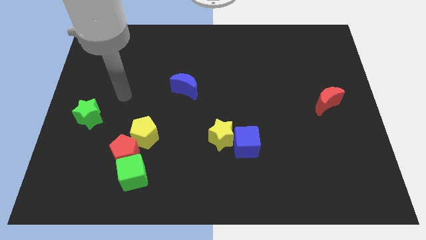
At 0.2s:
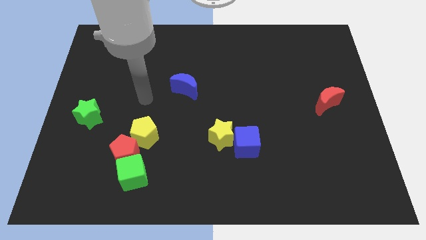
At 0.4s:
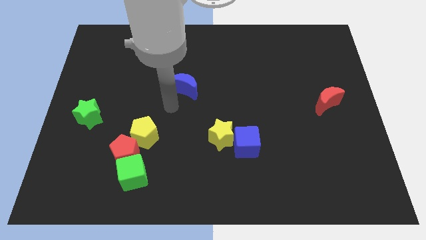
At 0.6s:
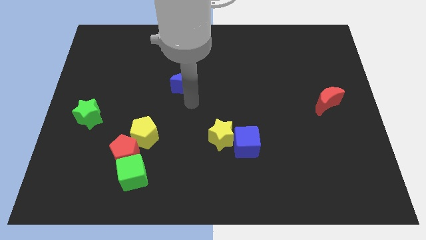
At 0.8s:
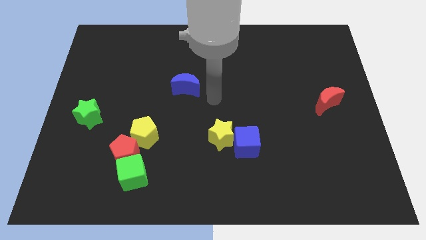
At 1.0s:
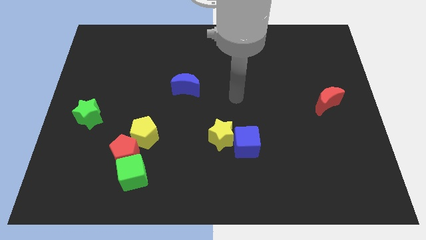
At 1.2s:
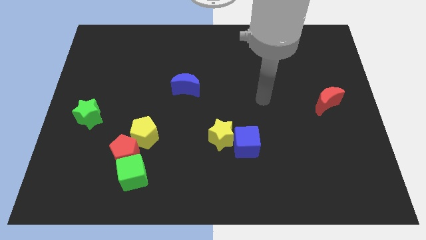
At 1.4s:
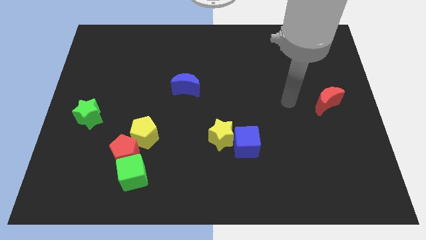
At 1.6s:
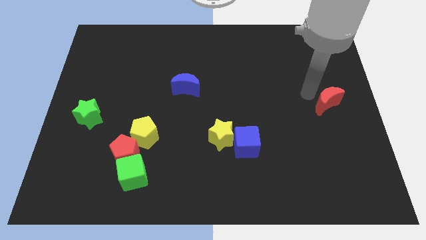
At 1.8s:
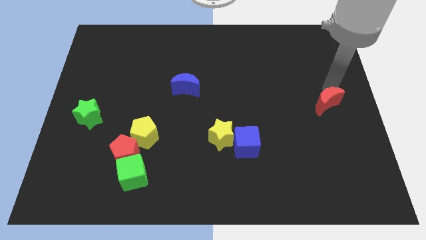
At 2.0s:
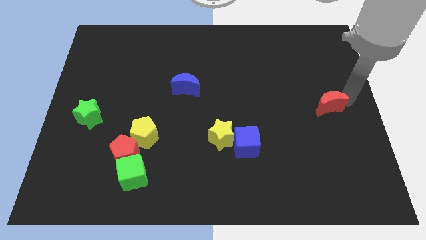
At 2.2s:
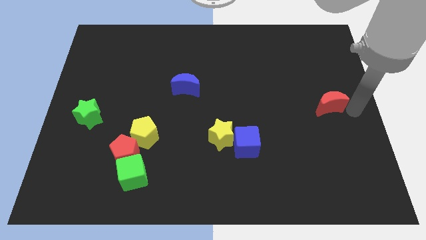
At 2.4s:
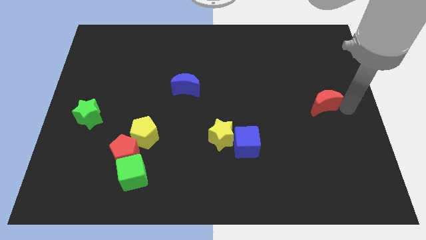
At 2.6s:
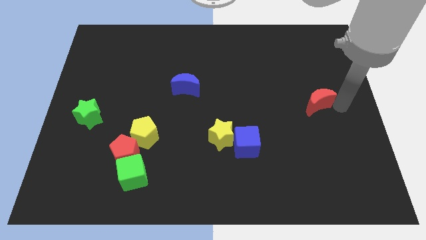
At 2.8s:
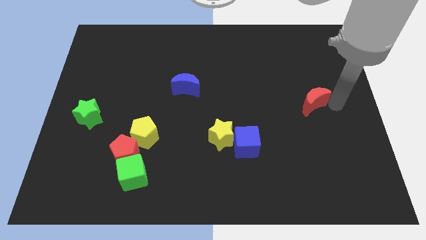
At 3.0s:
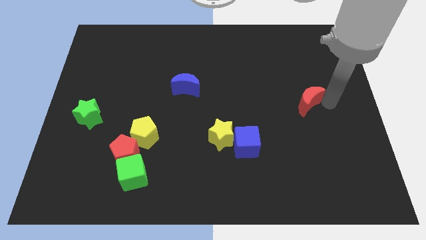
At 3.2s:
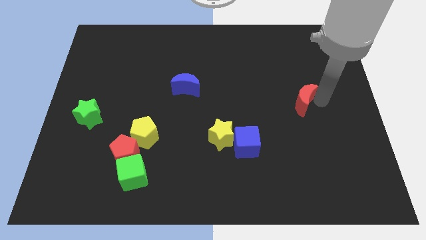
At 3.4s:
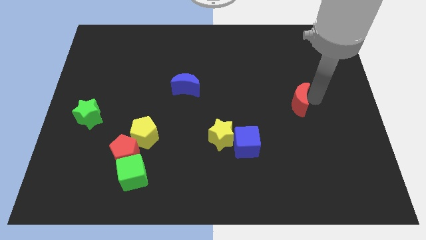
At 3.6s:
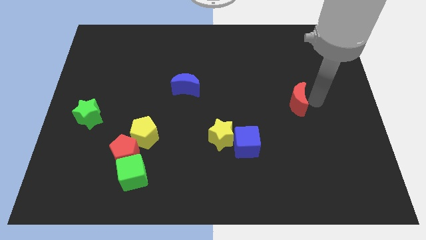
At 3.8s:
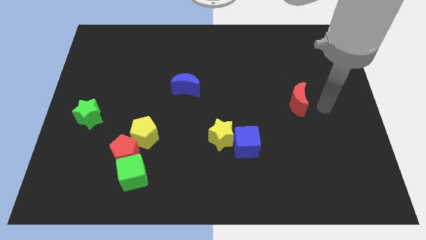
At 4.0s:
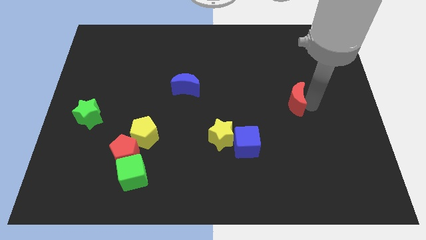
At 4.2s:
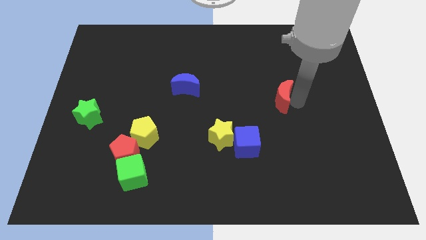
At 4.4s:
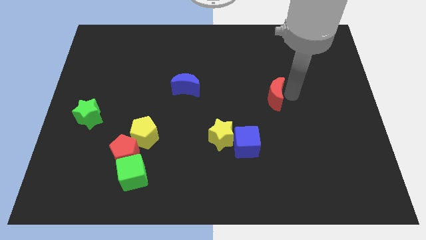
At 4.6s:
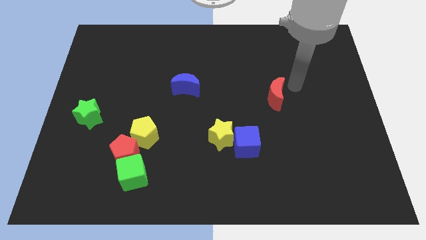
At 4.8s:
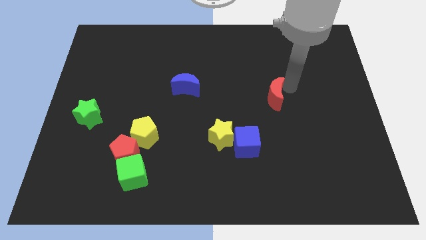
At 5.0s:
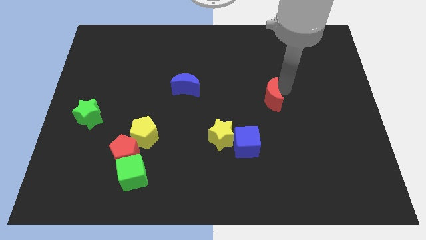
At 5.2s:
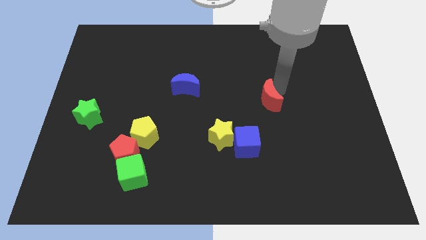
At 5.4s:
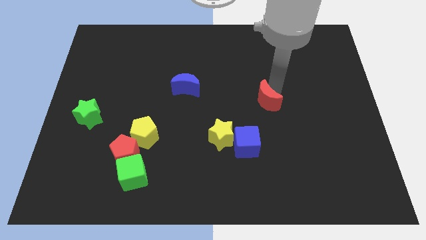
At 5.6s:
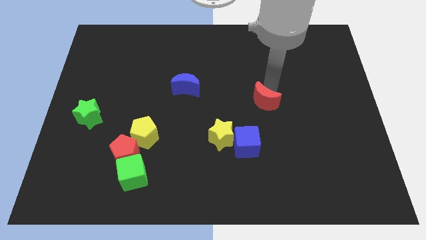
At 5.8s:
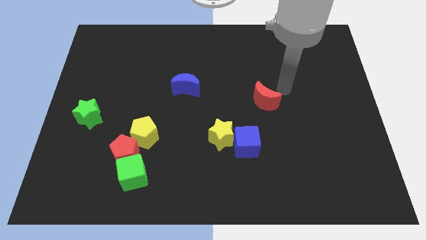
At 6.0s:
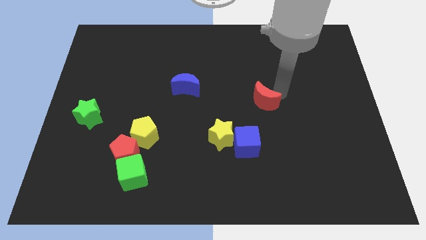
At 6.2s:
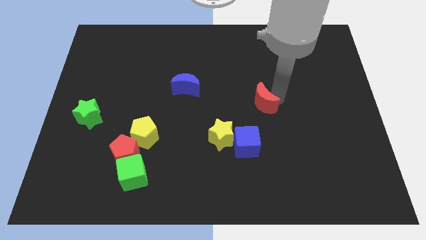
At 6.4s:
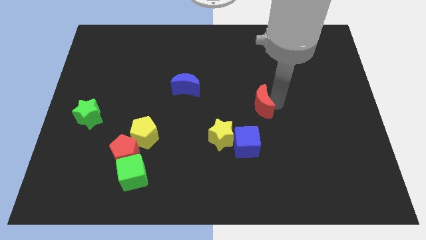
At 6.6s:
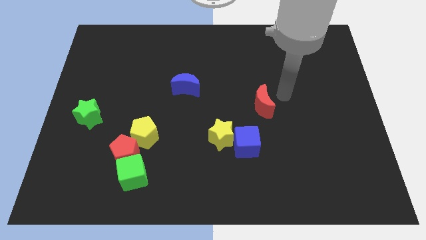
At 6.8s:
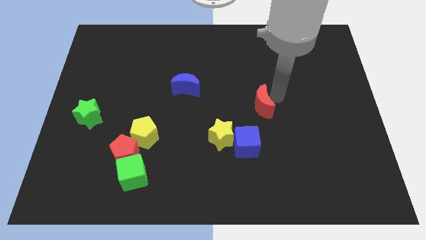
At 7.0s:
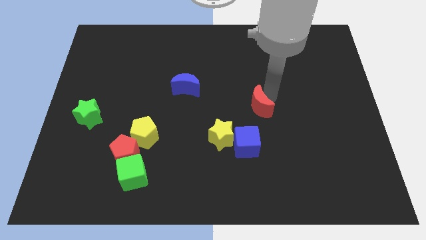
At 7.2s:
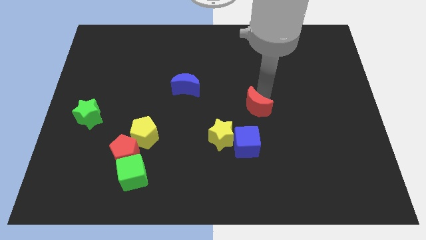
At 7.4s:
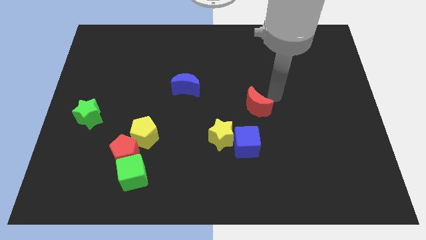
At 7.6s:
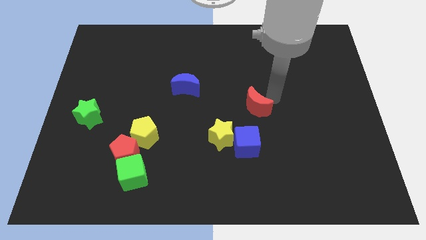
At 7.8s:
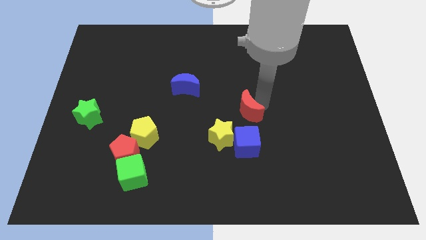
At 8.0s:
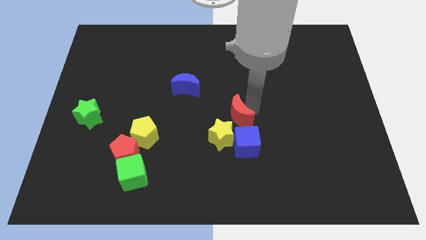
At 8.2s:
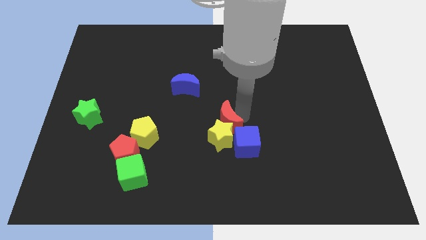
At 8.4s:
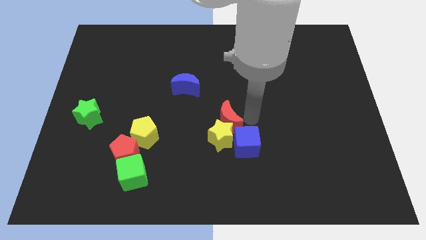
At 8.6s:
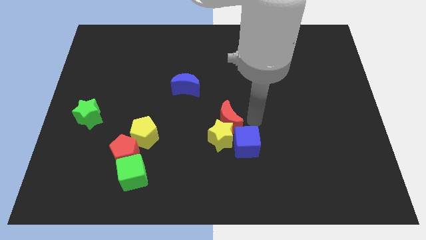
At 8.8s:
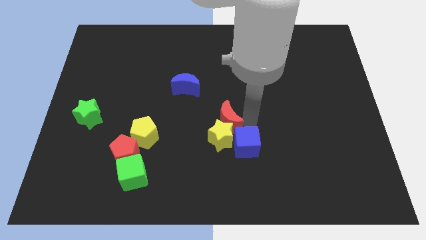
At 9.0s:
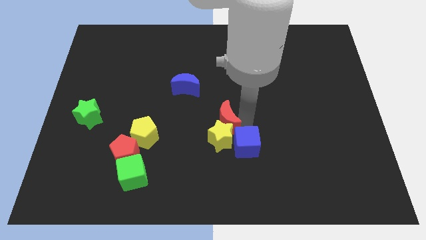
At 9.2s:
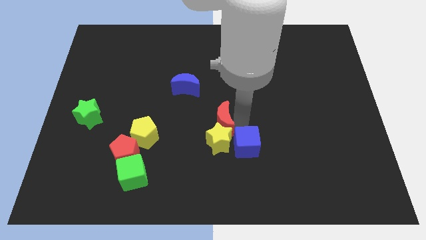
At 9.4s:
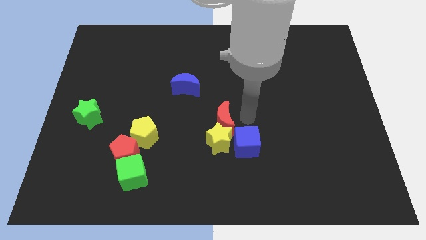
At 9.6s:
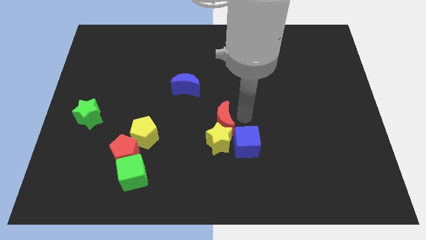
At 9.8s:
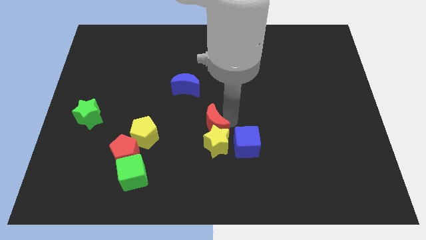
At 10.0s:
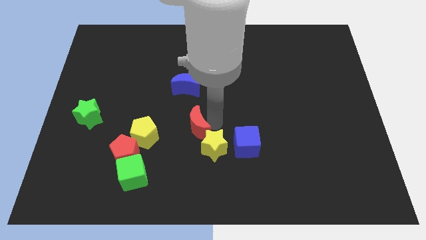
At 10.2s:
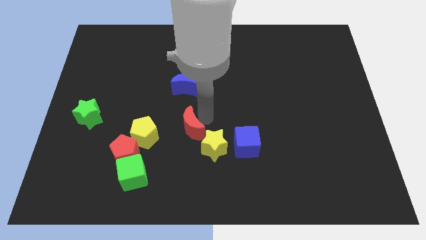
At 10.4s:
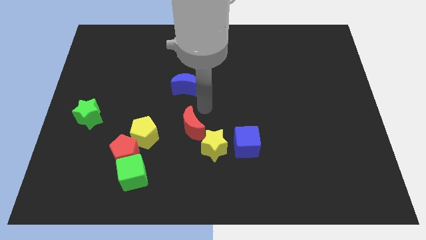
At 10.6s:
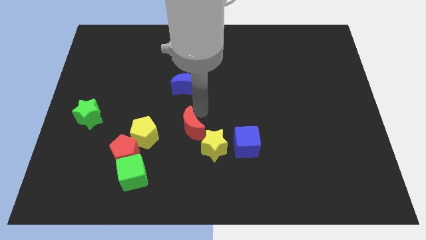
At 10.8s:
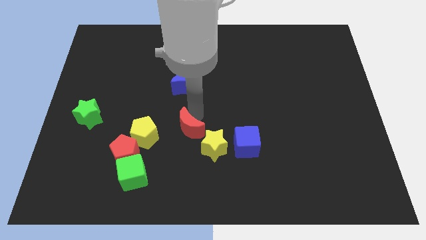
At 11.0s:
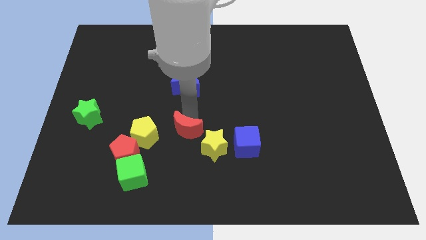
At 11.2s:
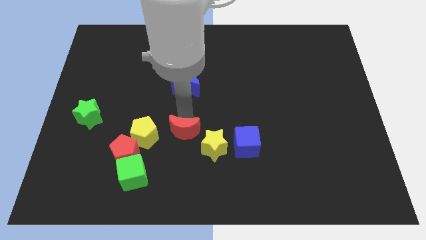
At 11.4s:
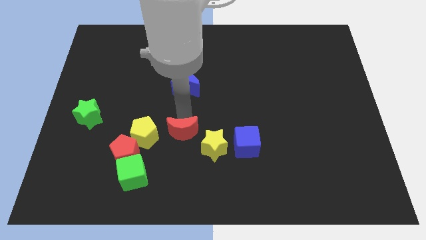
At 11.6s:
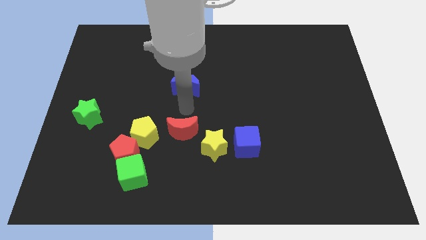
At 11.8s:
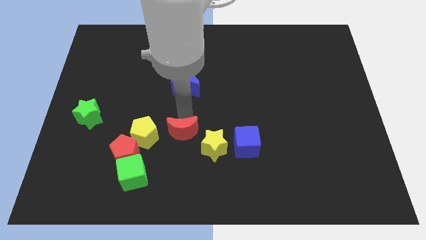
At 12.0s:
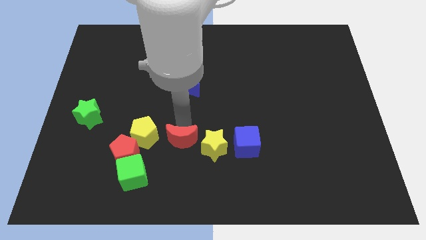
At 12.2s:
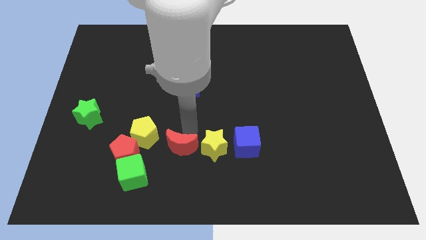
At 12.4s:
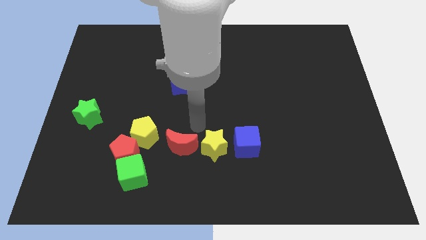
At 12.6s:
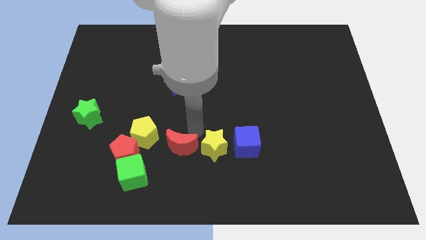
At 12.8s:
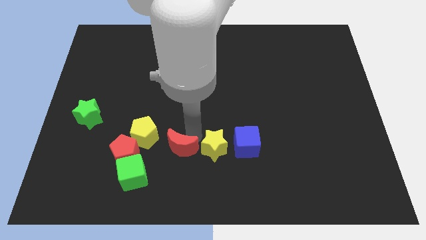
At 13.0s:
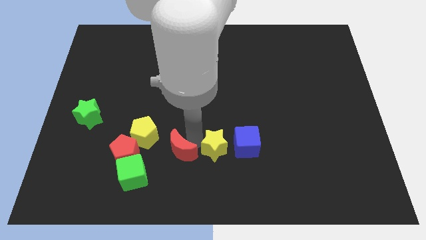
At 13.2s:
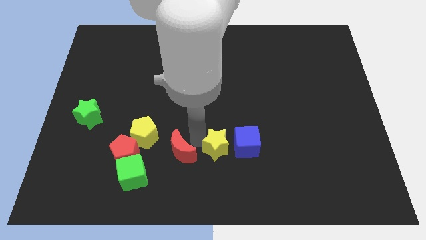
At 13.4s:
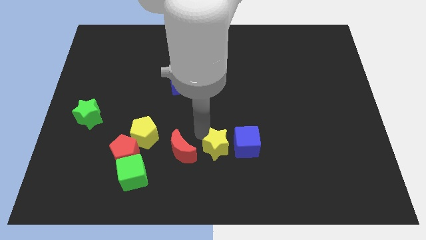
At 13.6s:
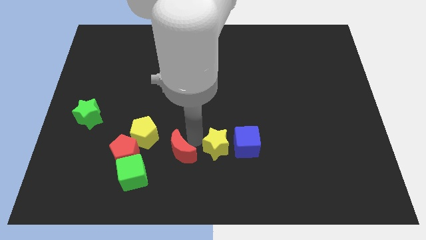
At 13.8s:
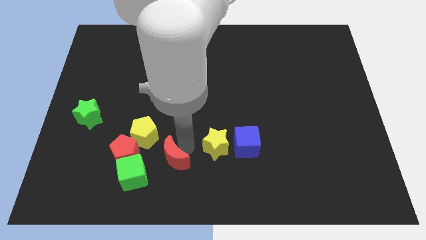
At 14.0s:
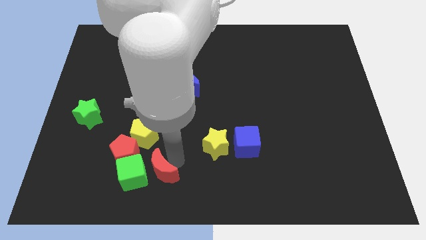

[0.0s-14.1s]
slide the red moon to the bottom side of the yellow pentagon

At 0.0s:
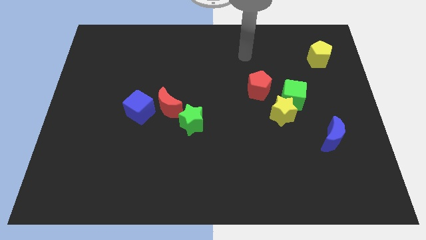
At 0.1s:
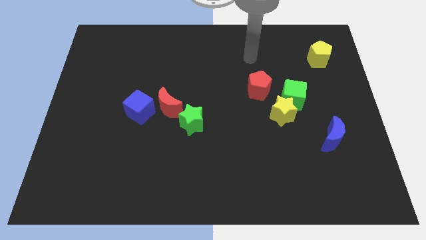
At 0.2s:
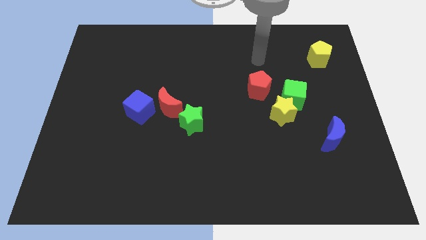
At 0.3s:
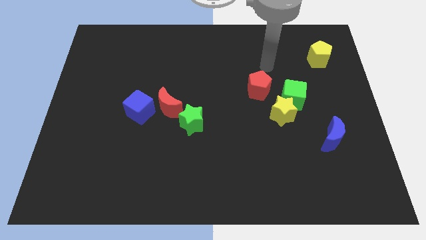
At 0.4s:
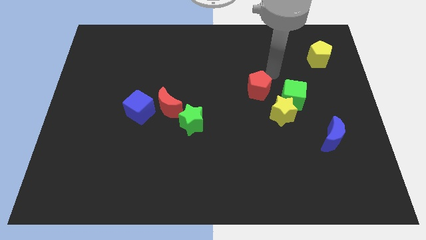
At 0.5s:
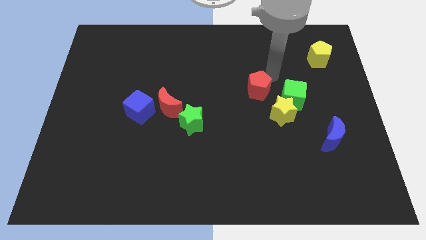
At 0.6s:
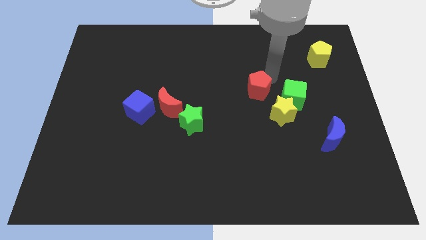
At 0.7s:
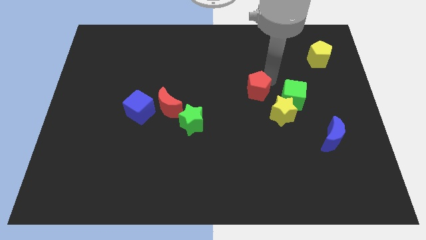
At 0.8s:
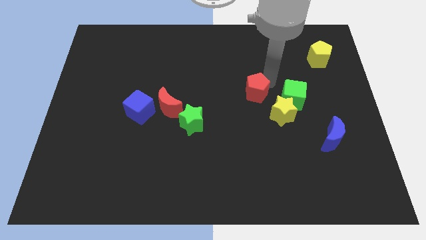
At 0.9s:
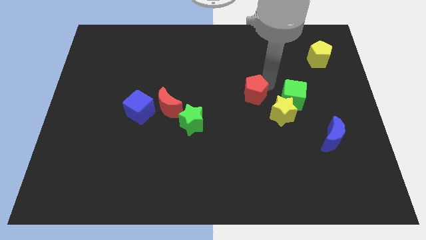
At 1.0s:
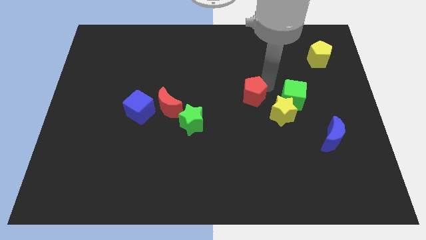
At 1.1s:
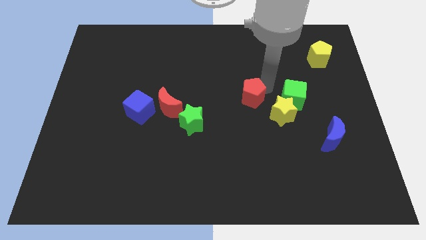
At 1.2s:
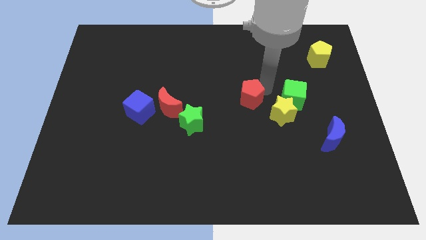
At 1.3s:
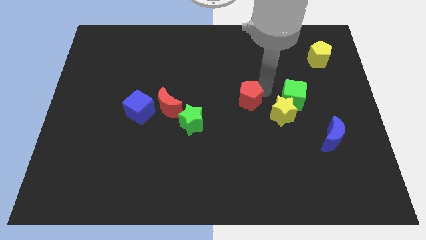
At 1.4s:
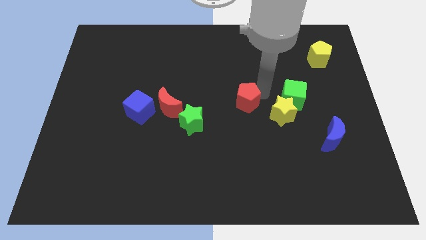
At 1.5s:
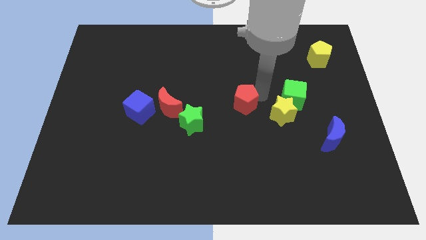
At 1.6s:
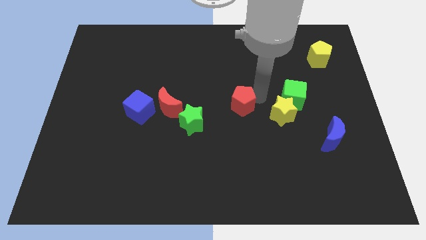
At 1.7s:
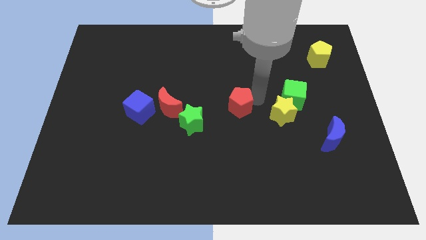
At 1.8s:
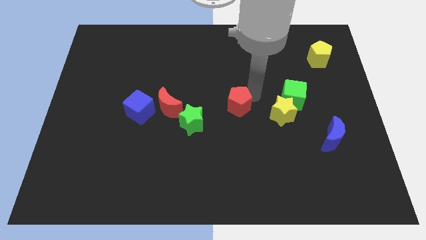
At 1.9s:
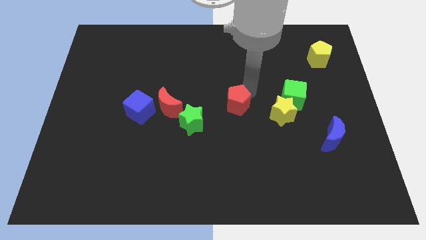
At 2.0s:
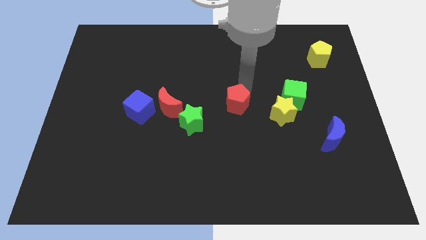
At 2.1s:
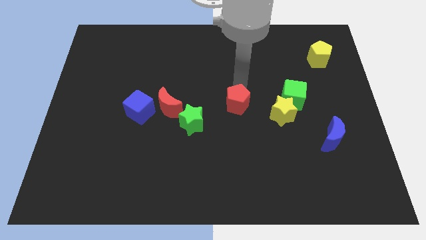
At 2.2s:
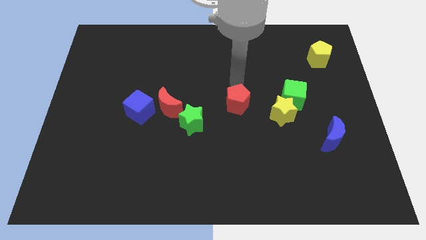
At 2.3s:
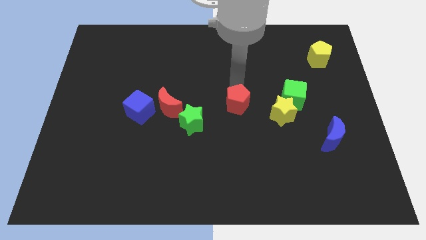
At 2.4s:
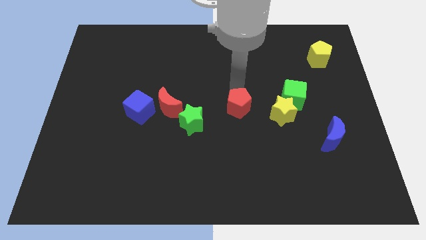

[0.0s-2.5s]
push the red pentagon to the right of the green star
